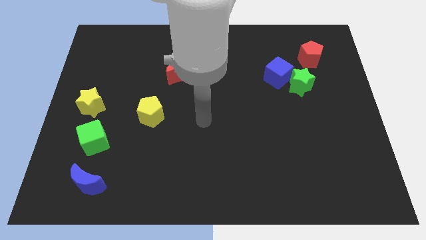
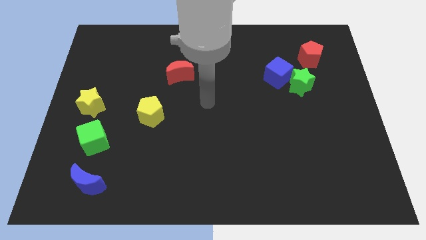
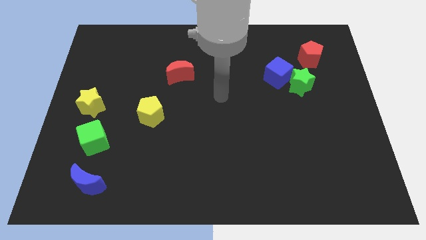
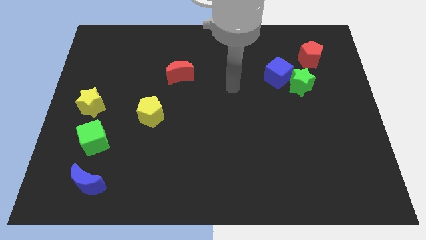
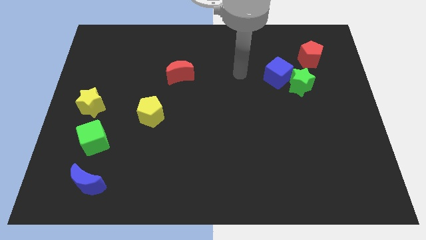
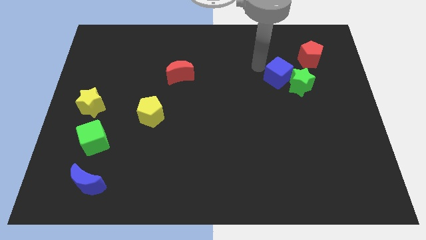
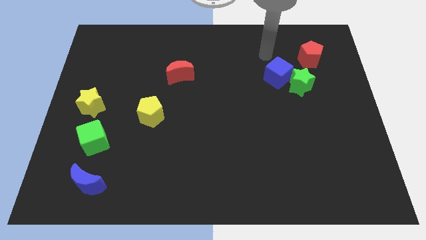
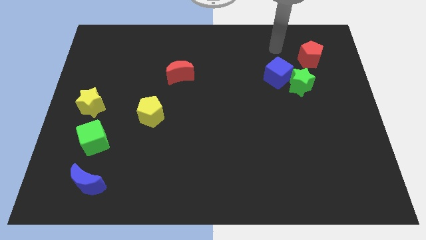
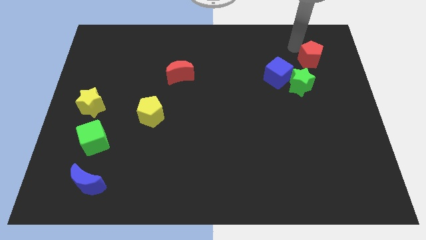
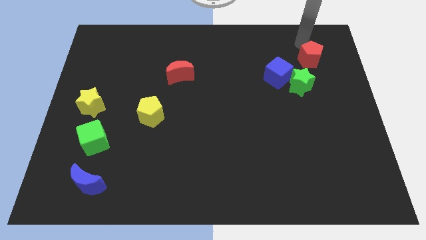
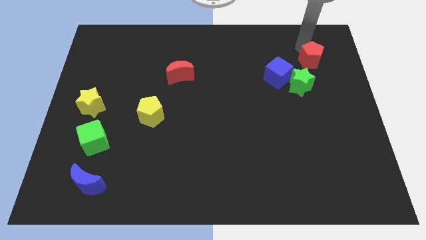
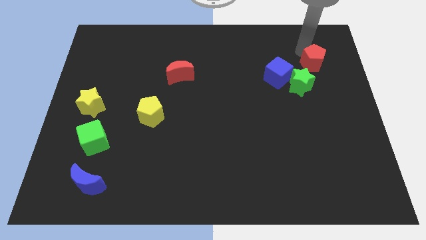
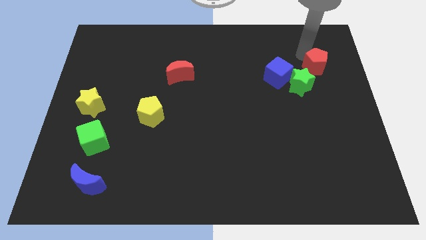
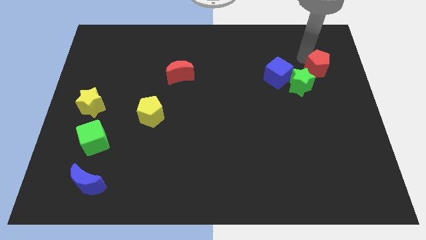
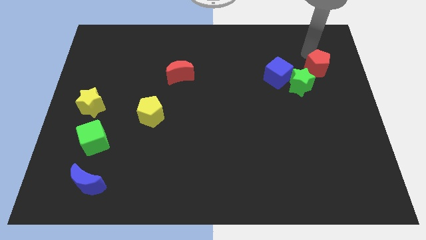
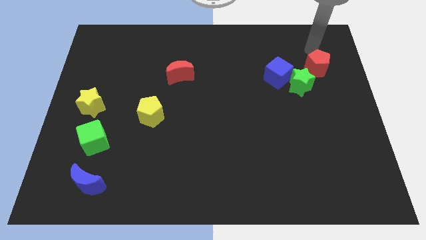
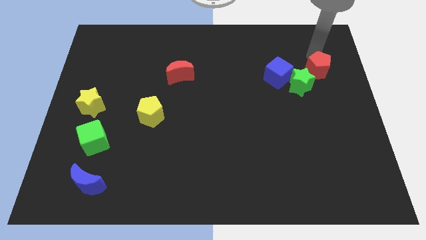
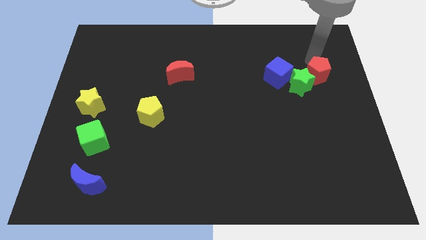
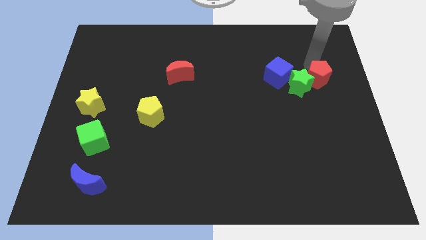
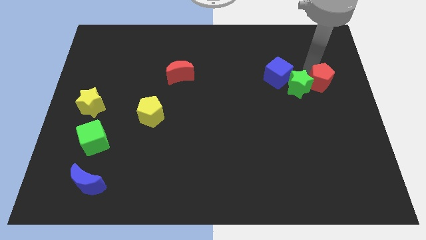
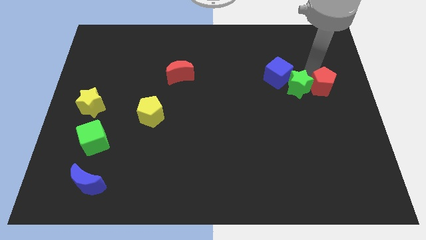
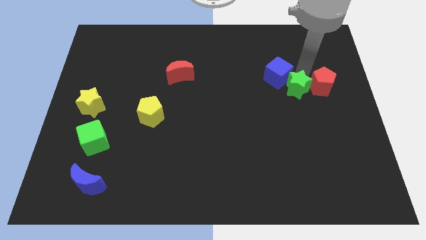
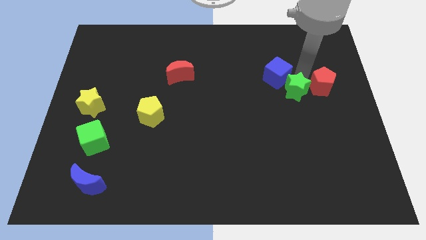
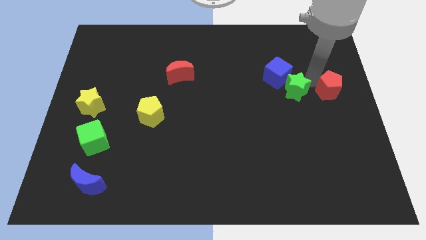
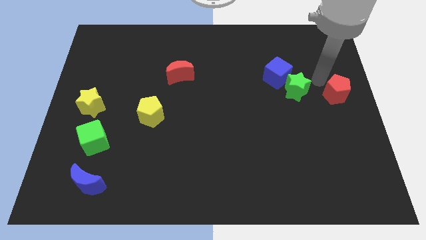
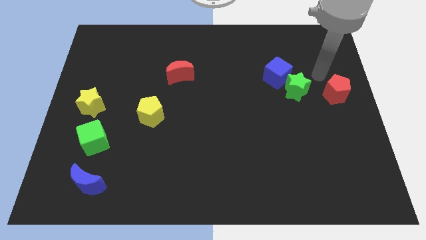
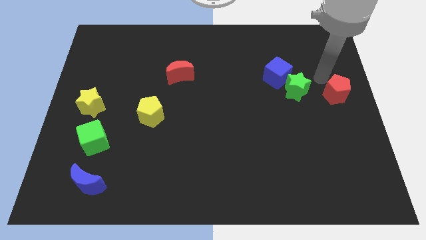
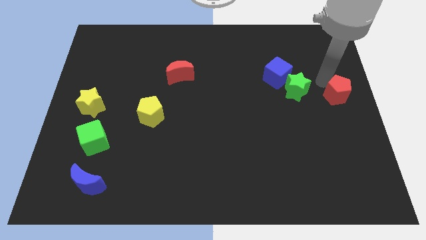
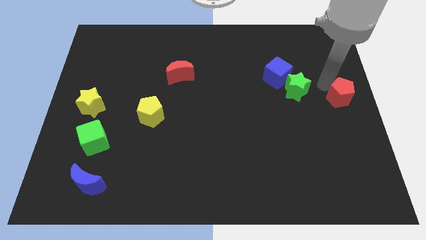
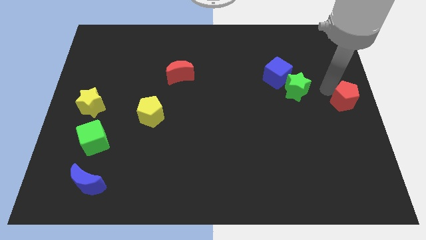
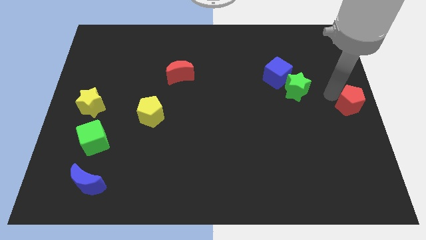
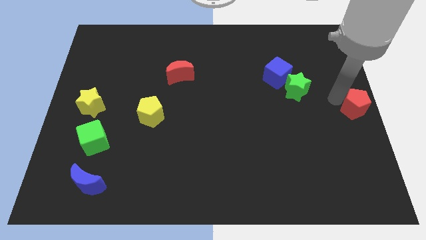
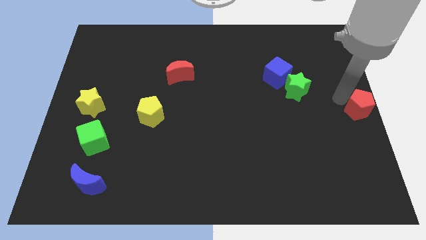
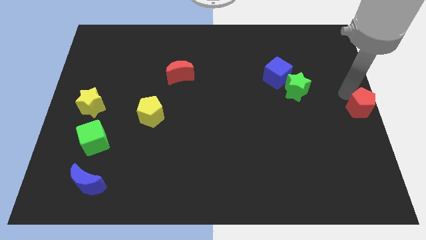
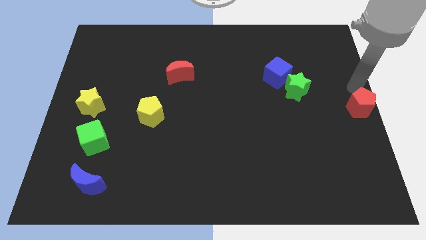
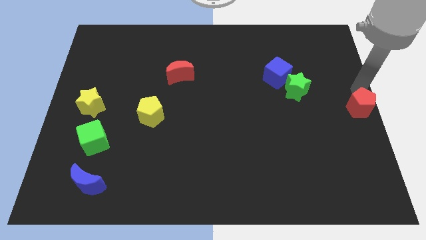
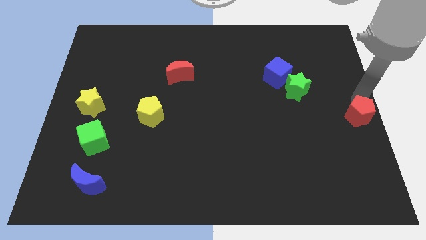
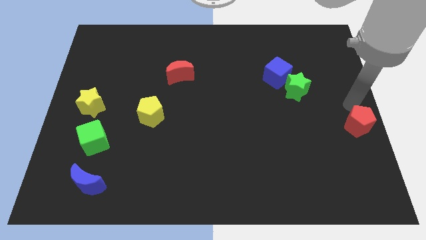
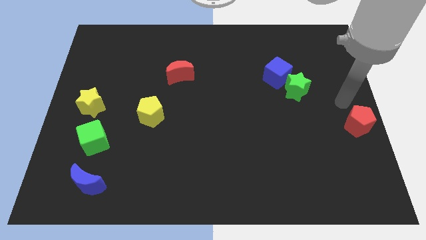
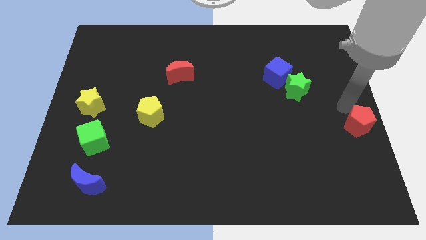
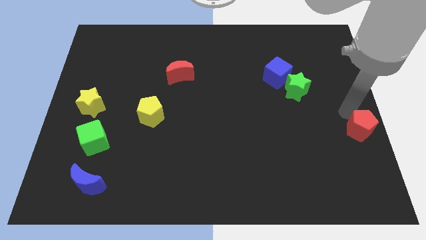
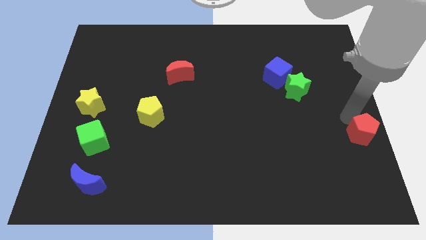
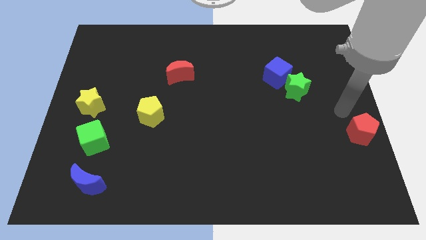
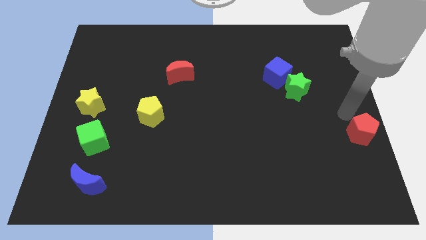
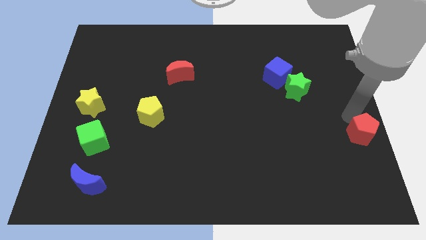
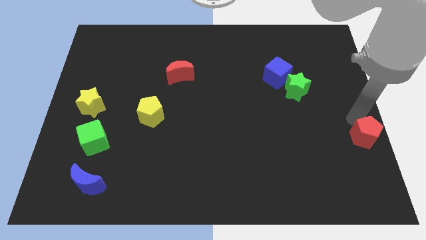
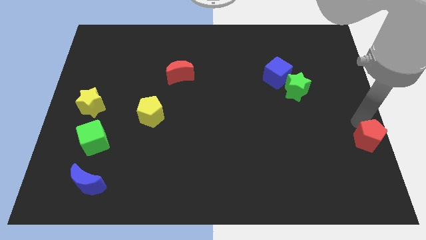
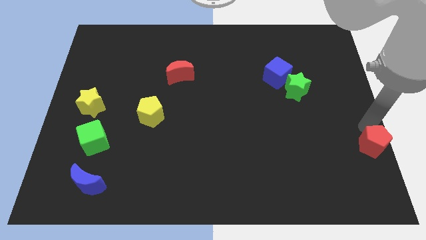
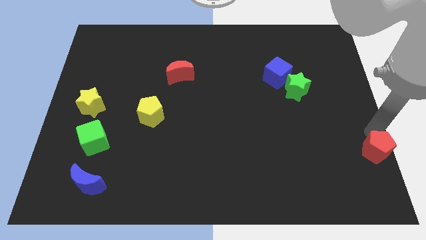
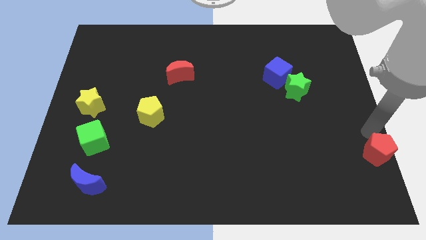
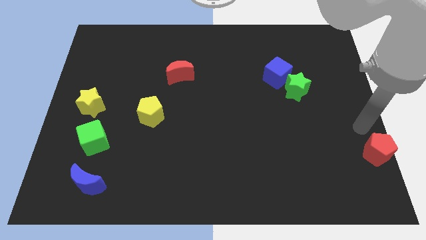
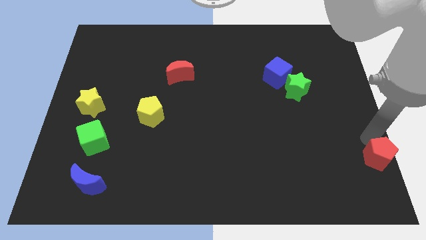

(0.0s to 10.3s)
push the red pentagon to the bottom right of the board

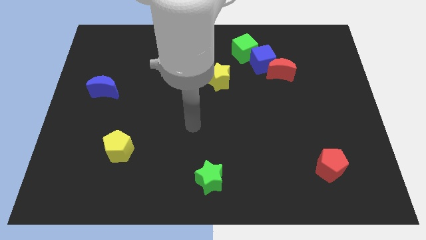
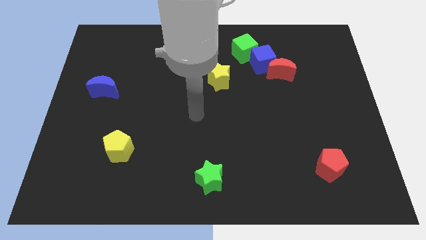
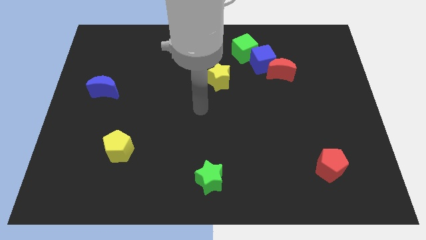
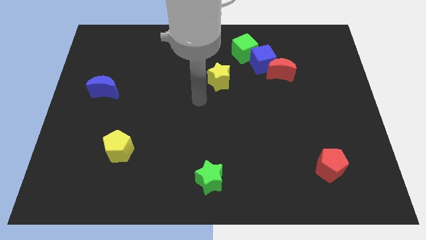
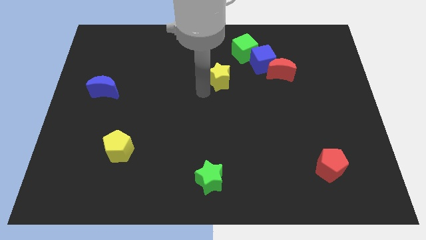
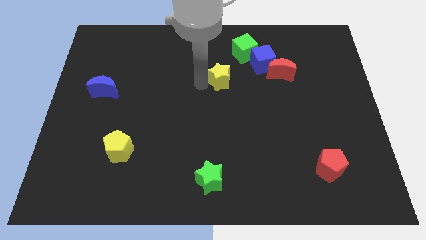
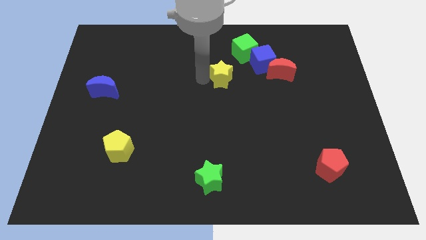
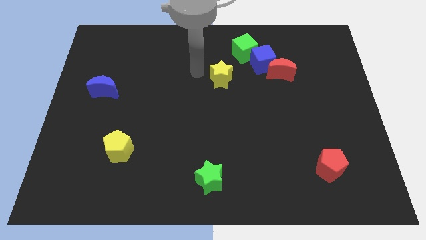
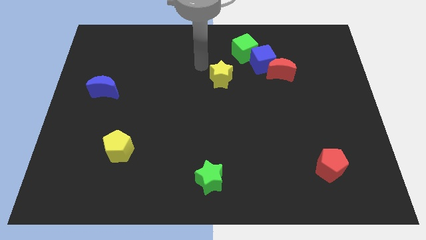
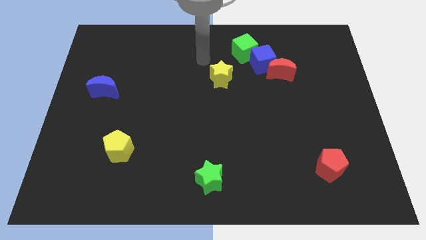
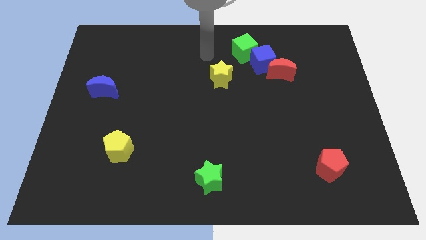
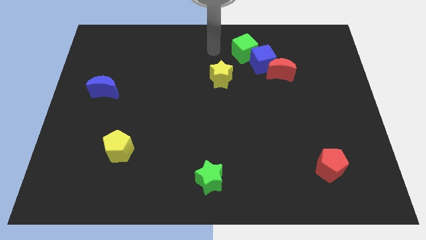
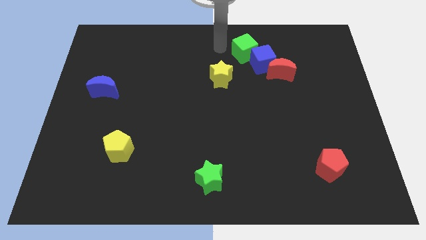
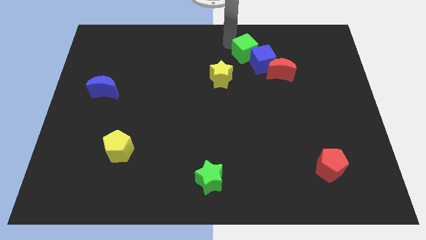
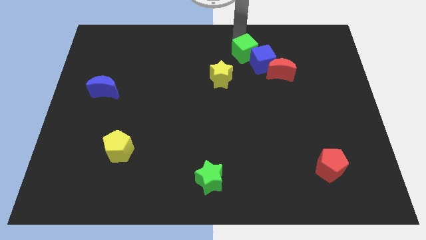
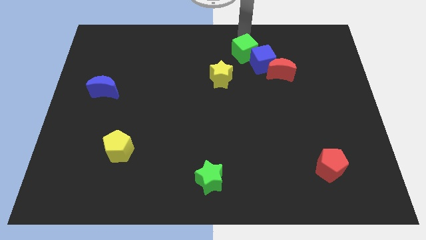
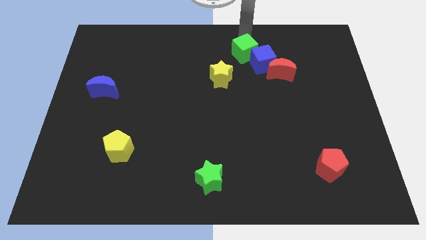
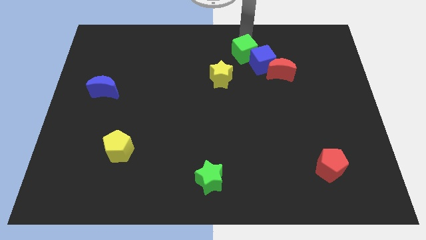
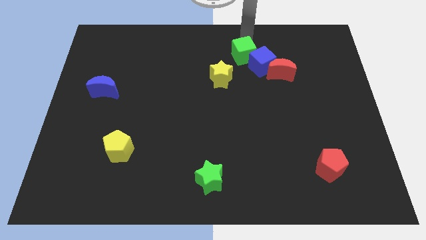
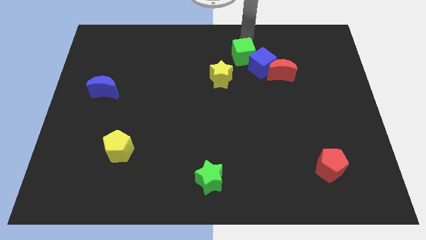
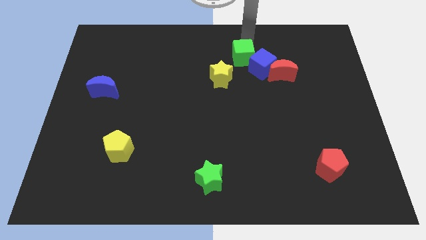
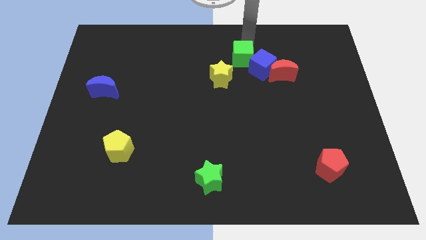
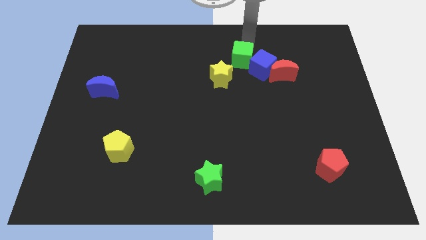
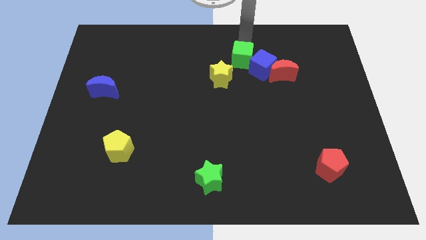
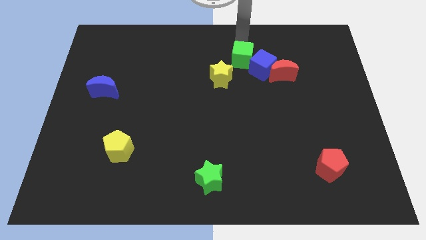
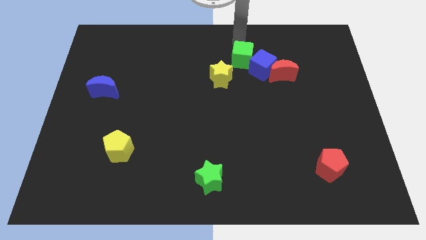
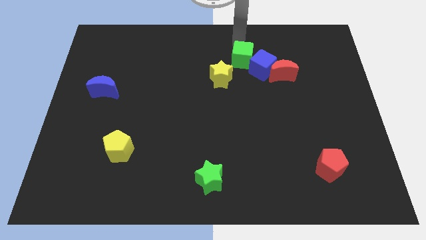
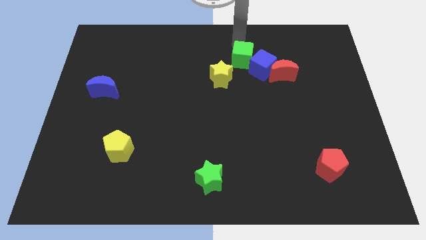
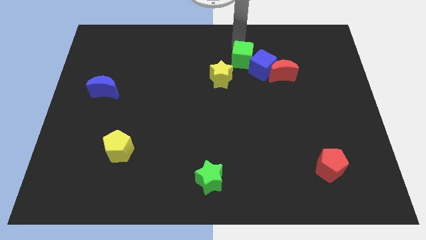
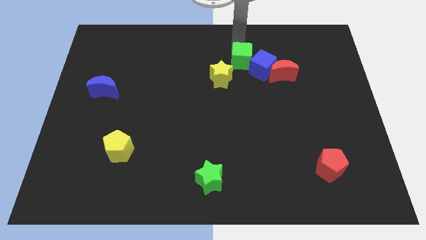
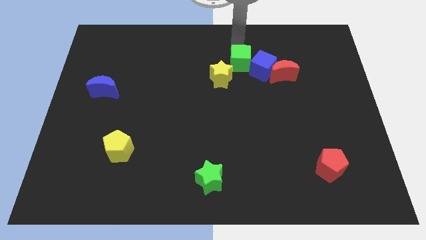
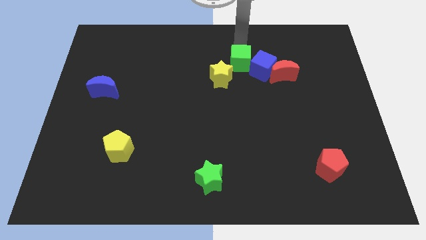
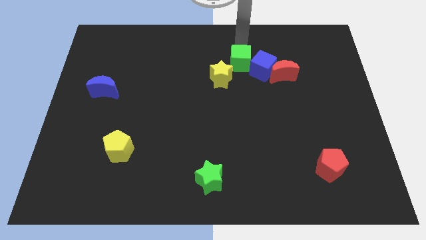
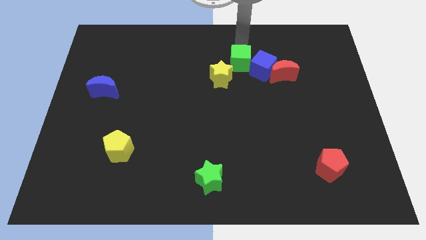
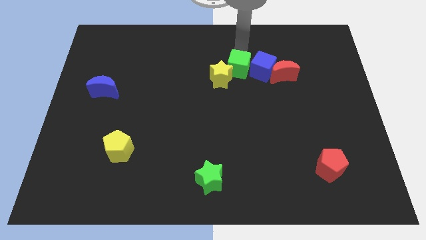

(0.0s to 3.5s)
slide the green cube to the center
